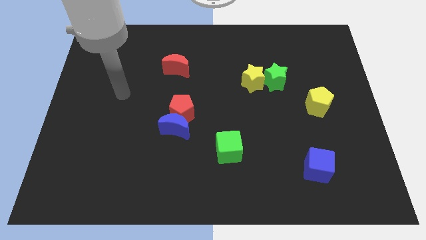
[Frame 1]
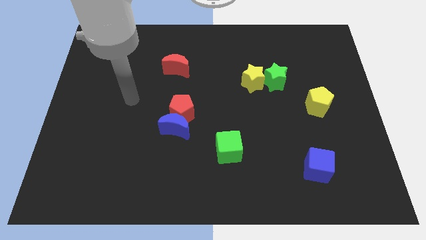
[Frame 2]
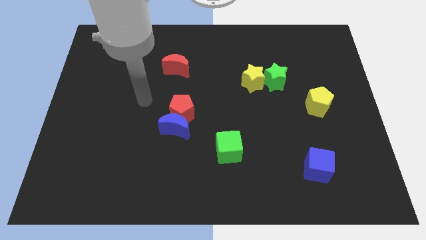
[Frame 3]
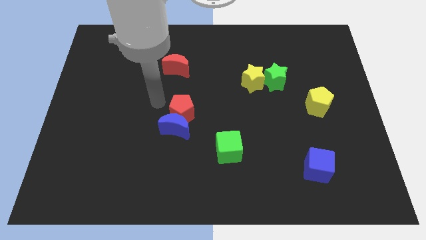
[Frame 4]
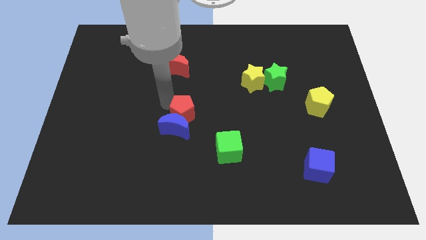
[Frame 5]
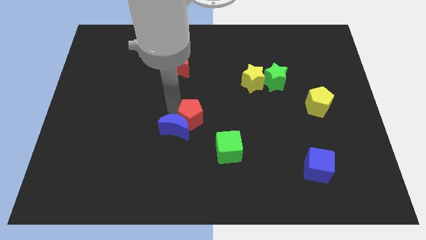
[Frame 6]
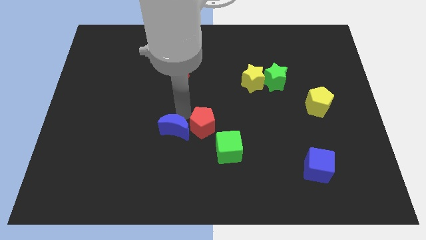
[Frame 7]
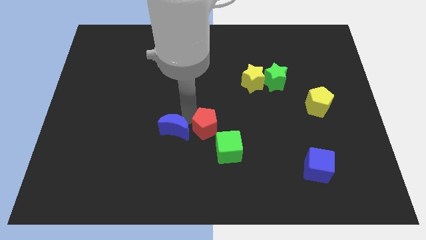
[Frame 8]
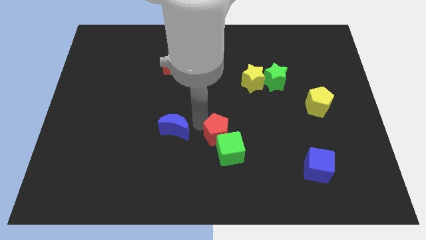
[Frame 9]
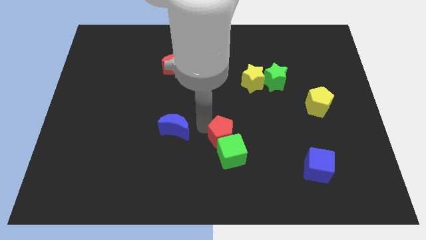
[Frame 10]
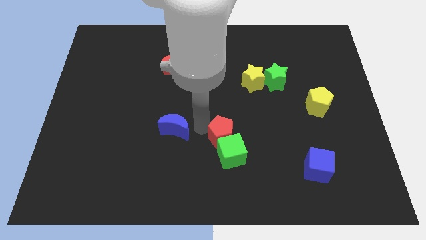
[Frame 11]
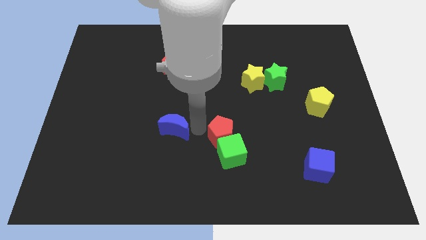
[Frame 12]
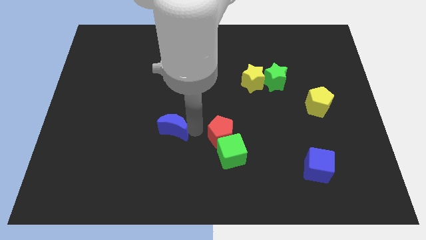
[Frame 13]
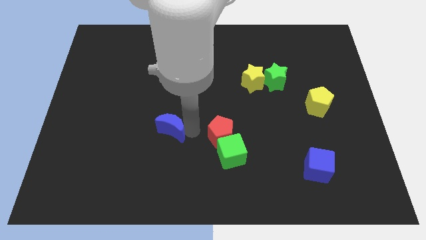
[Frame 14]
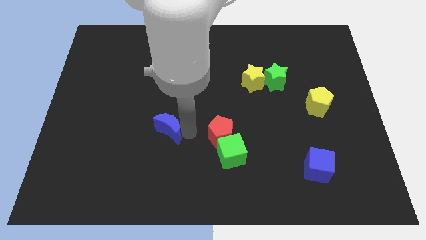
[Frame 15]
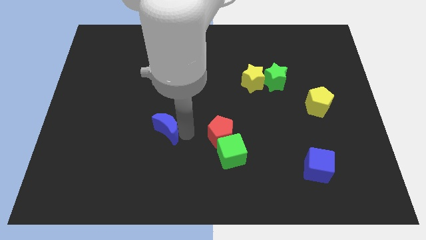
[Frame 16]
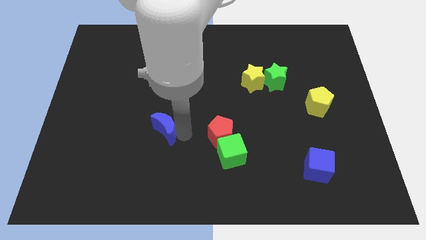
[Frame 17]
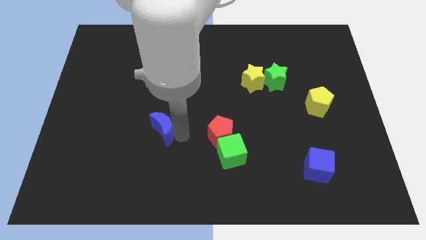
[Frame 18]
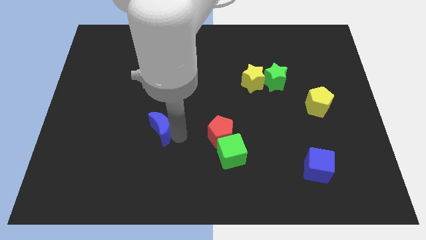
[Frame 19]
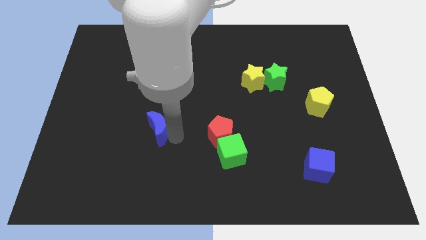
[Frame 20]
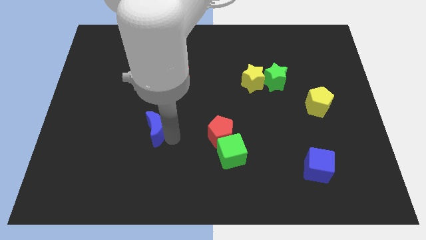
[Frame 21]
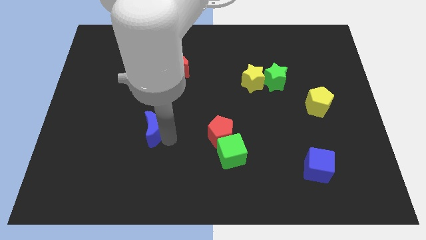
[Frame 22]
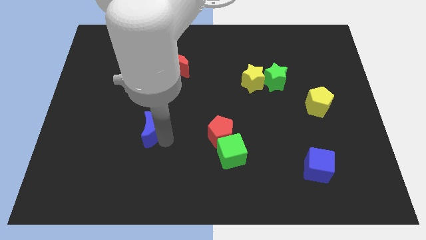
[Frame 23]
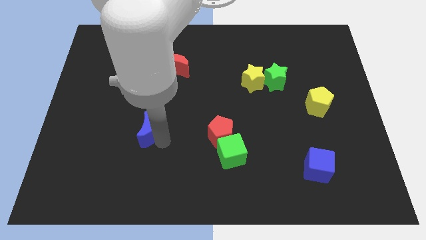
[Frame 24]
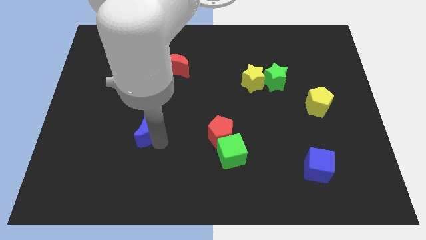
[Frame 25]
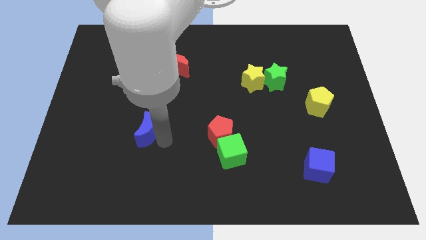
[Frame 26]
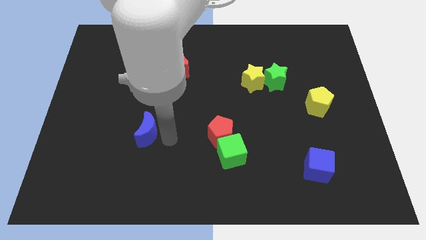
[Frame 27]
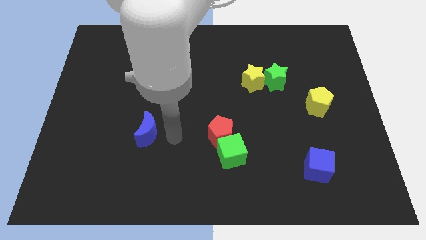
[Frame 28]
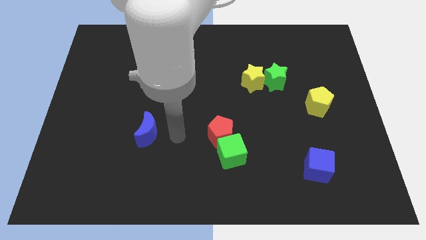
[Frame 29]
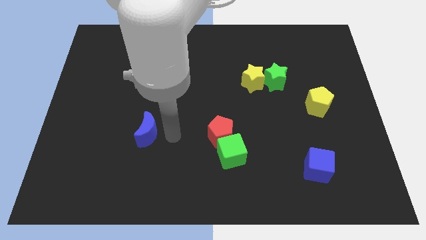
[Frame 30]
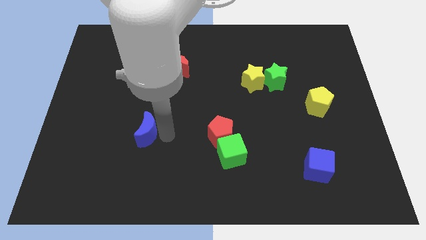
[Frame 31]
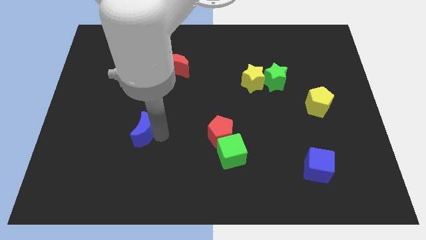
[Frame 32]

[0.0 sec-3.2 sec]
slightly move the blue moon left

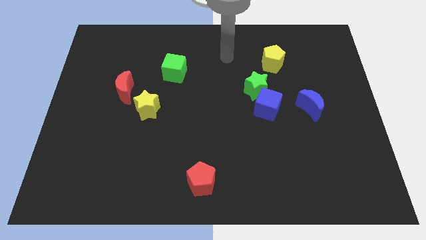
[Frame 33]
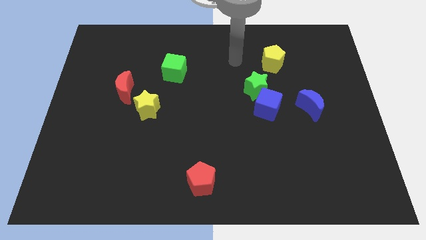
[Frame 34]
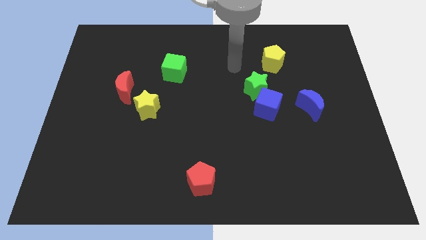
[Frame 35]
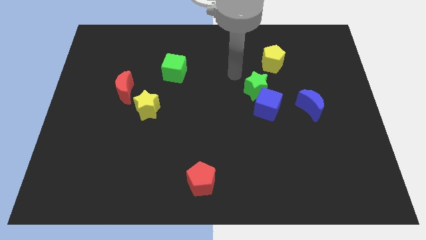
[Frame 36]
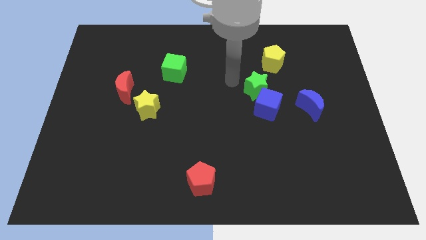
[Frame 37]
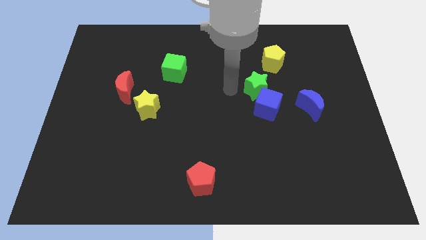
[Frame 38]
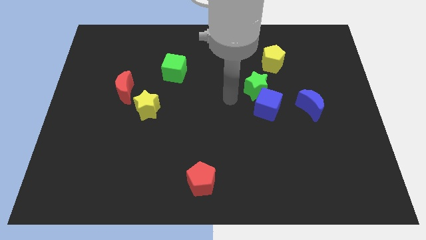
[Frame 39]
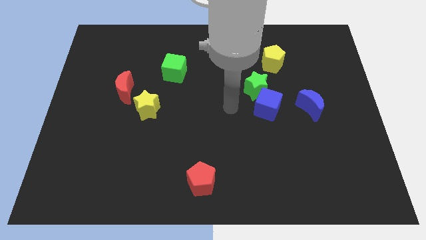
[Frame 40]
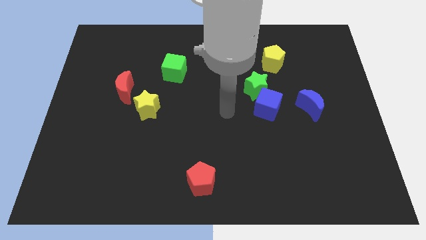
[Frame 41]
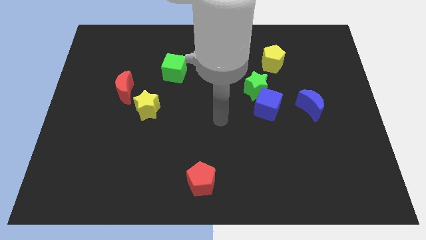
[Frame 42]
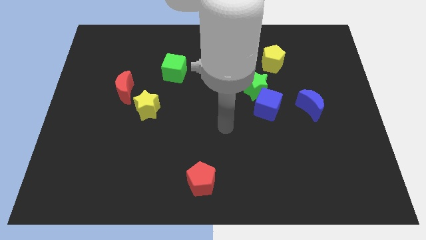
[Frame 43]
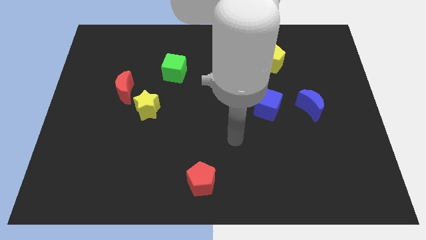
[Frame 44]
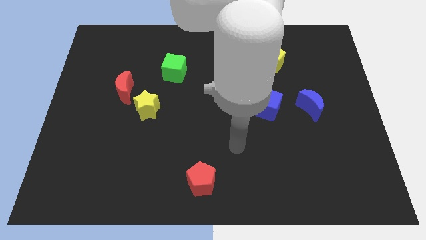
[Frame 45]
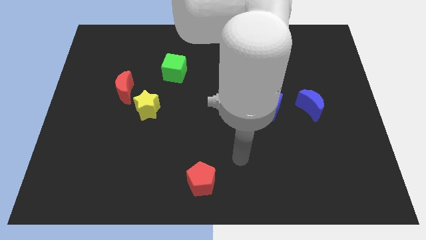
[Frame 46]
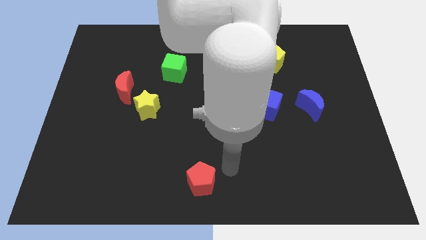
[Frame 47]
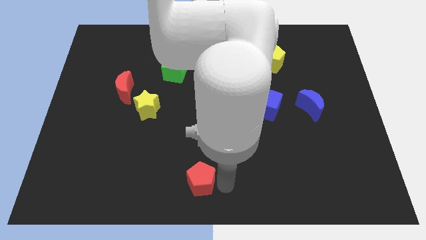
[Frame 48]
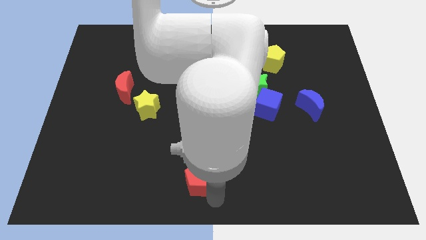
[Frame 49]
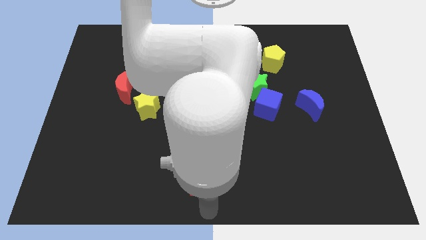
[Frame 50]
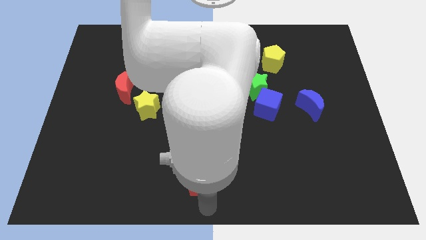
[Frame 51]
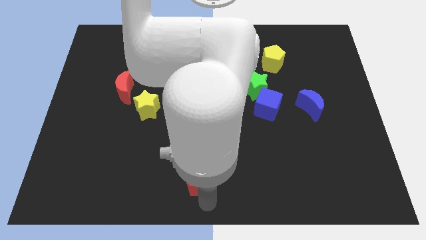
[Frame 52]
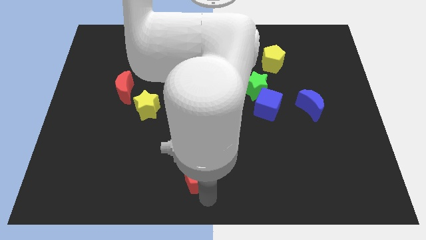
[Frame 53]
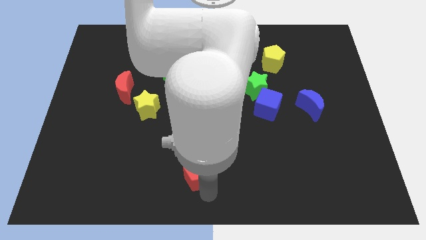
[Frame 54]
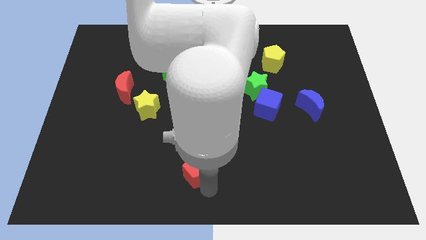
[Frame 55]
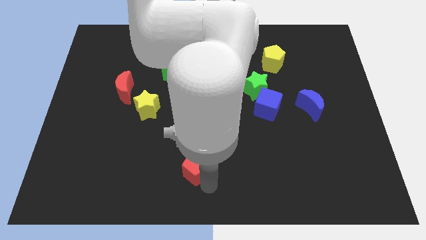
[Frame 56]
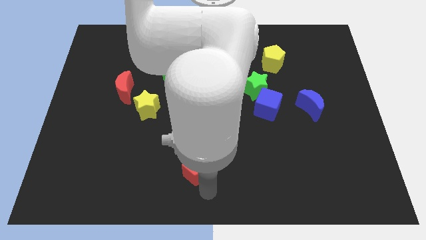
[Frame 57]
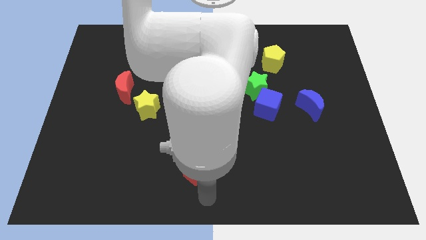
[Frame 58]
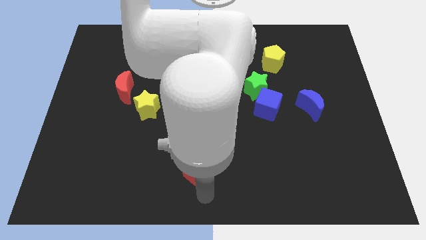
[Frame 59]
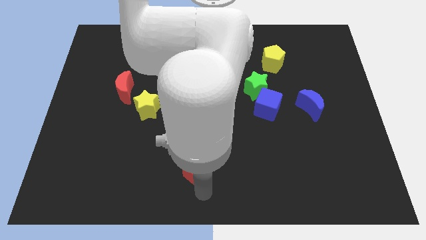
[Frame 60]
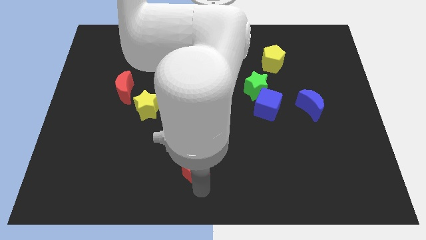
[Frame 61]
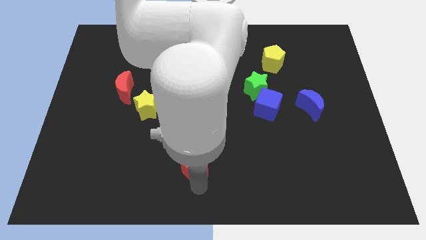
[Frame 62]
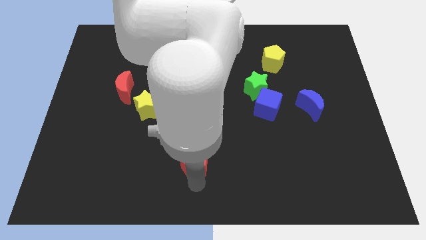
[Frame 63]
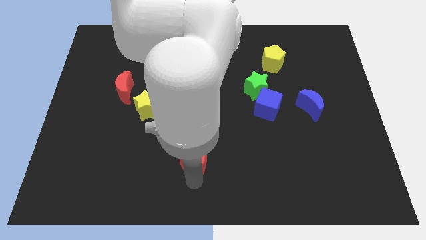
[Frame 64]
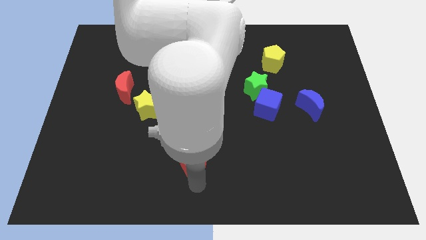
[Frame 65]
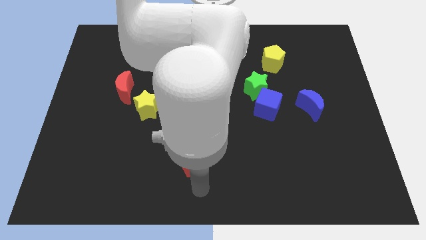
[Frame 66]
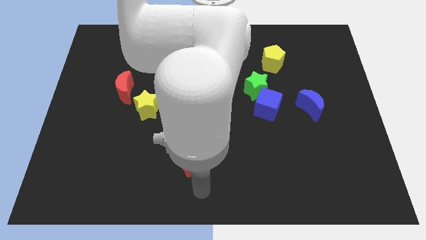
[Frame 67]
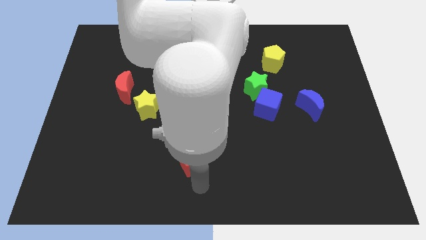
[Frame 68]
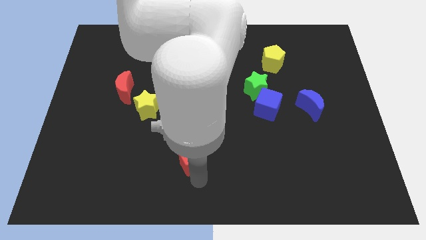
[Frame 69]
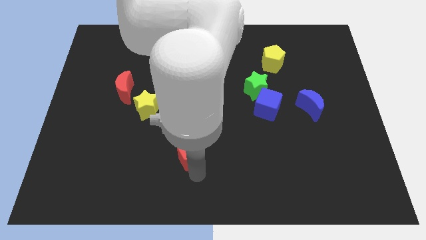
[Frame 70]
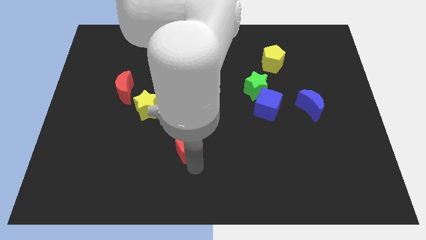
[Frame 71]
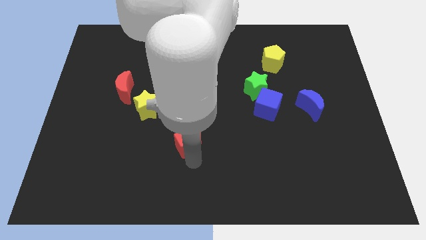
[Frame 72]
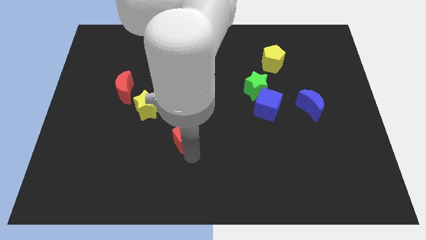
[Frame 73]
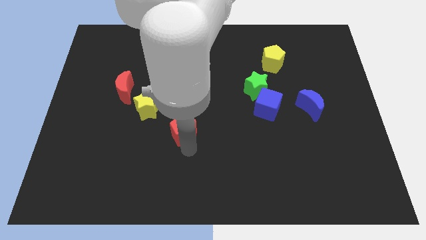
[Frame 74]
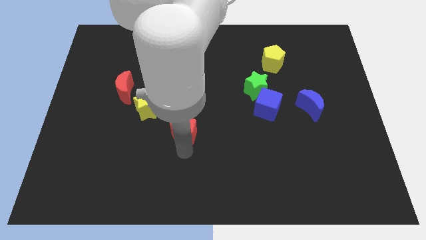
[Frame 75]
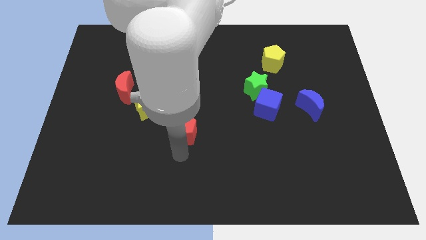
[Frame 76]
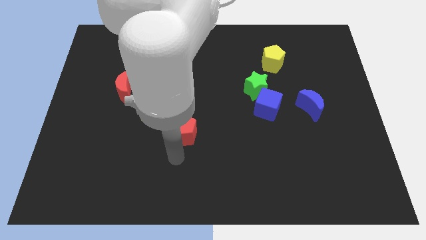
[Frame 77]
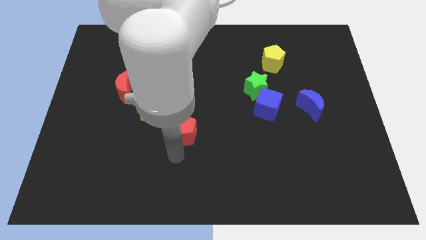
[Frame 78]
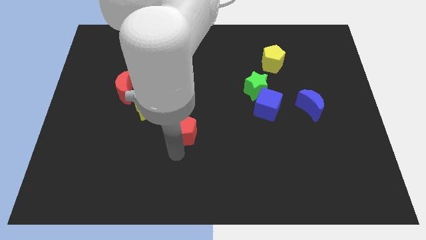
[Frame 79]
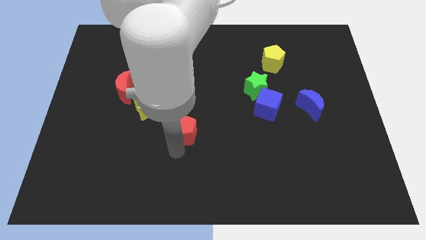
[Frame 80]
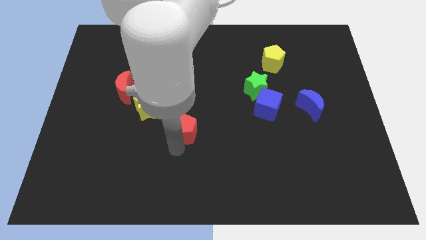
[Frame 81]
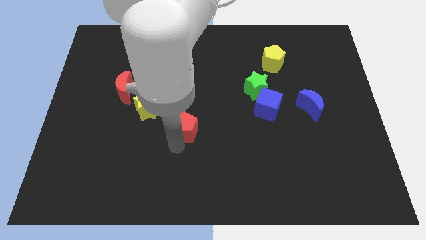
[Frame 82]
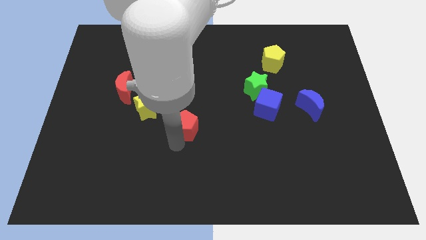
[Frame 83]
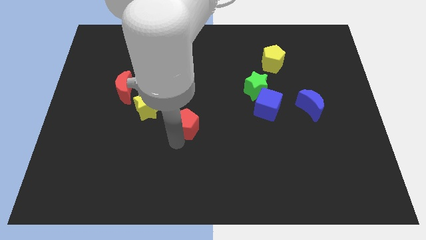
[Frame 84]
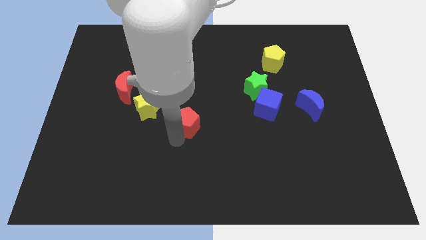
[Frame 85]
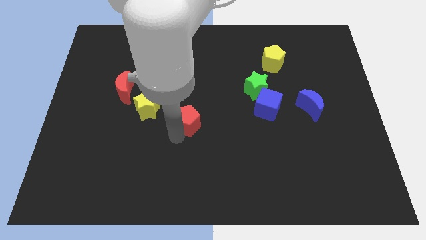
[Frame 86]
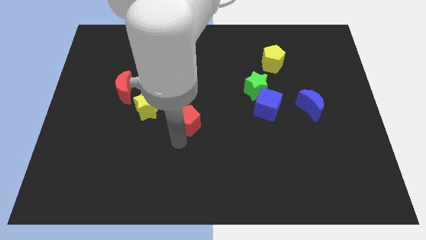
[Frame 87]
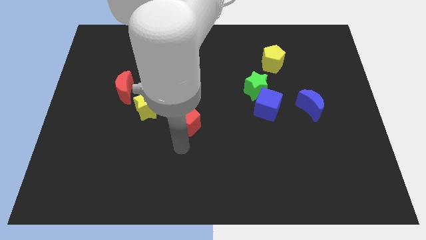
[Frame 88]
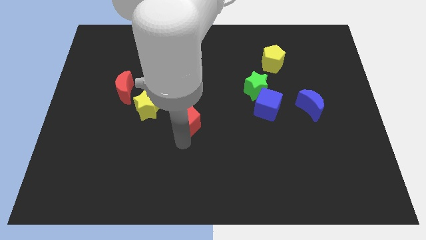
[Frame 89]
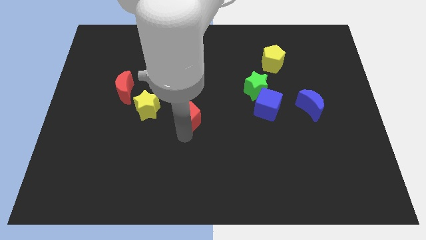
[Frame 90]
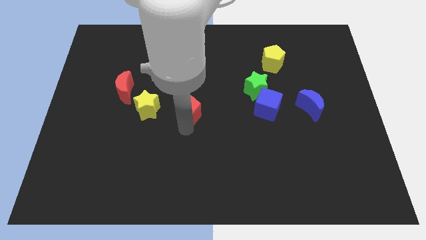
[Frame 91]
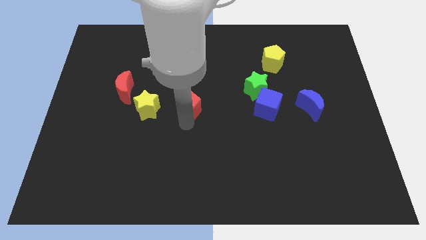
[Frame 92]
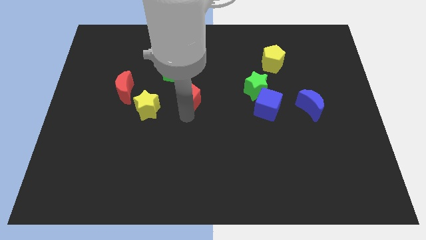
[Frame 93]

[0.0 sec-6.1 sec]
slide the red pentagon upwards
